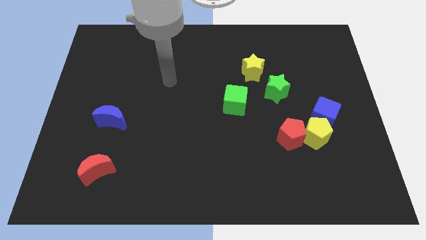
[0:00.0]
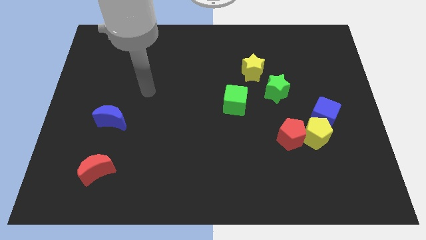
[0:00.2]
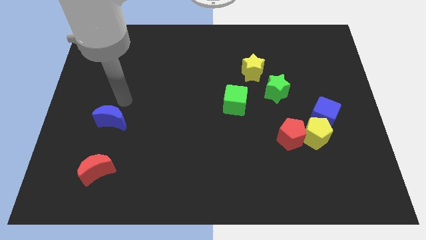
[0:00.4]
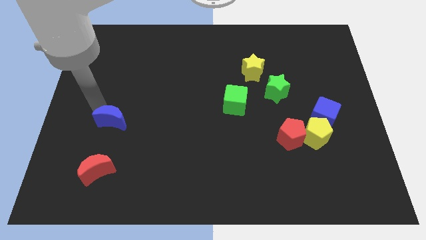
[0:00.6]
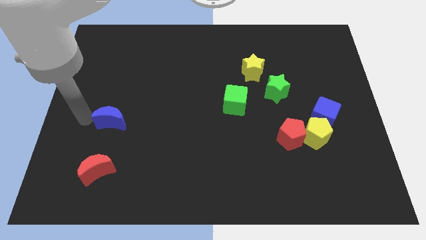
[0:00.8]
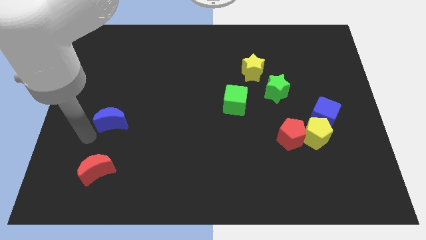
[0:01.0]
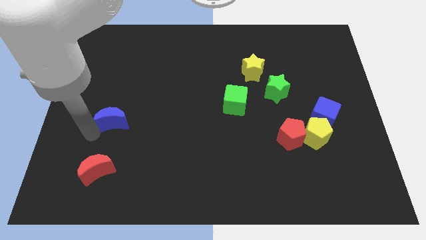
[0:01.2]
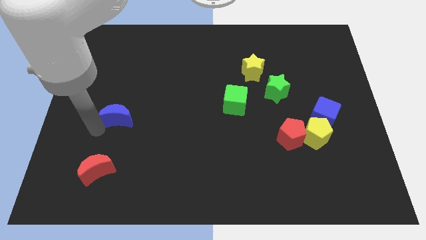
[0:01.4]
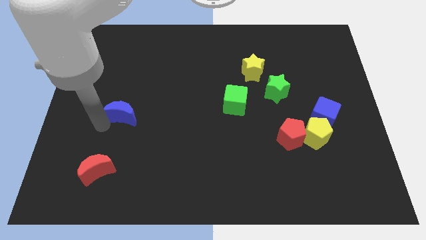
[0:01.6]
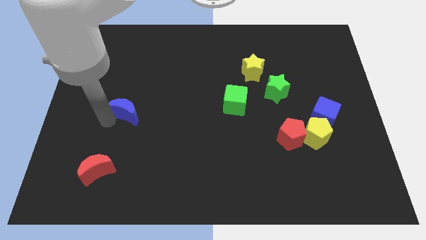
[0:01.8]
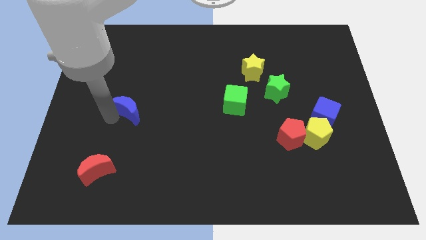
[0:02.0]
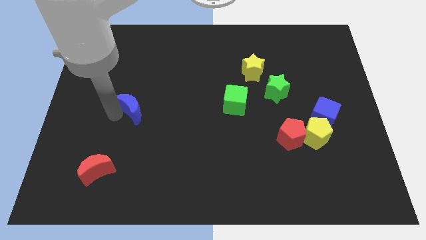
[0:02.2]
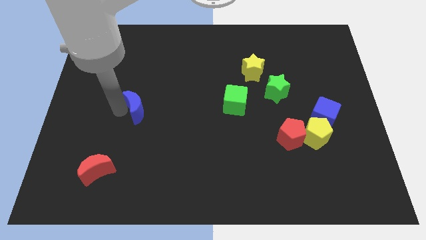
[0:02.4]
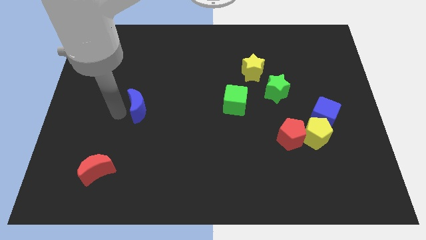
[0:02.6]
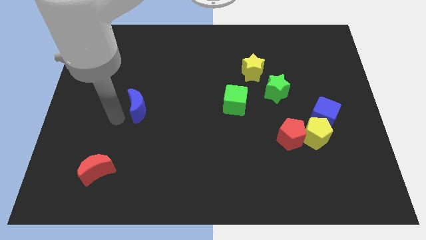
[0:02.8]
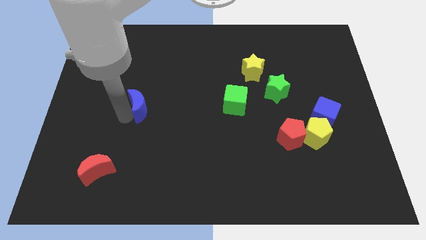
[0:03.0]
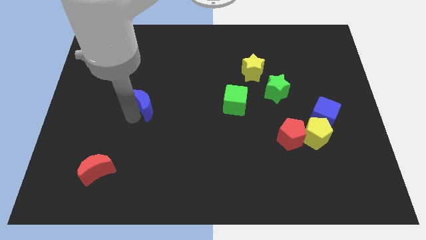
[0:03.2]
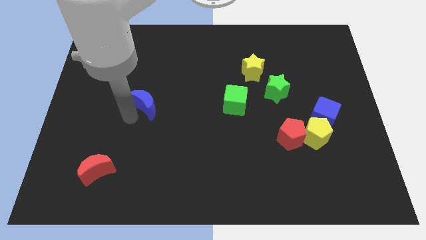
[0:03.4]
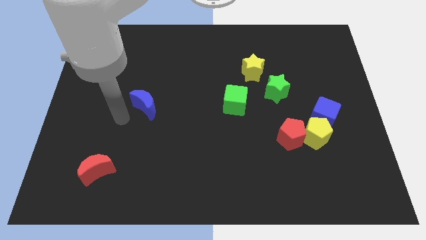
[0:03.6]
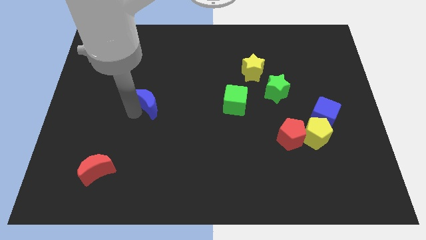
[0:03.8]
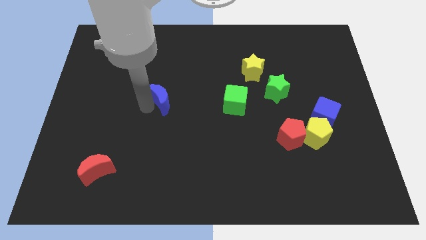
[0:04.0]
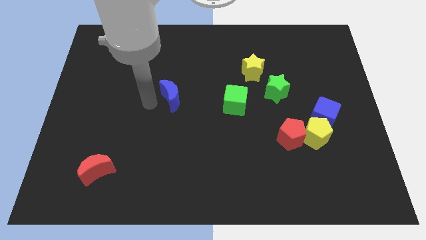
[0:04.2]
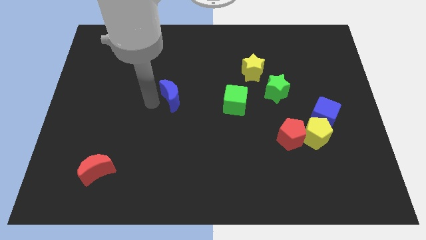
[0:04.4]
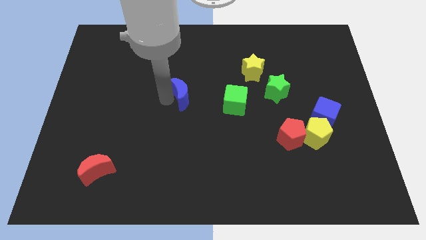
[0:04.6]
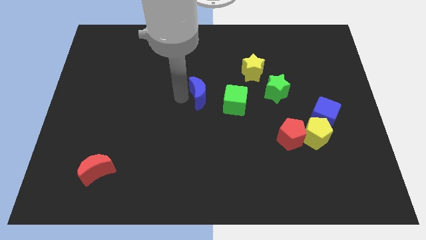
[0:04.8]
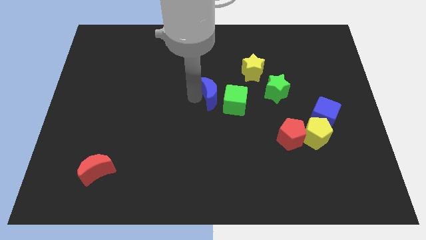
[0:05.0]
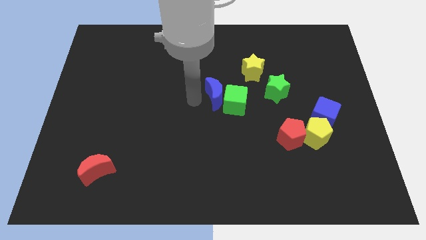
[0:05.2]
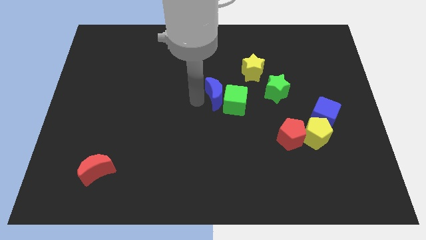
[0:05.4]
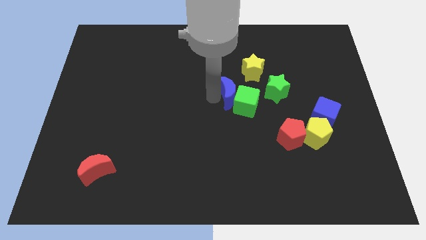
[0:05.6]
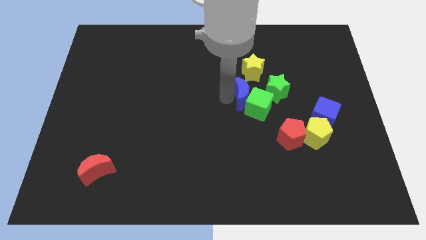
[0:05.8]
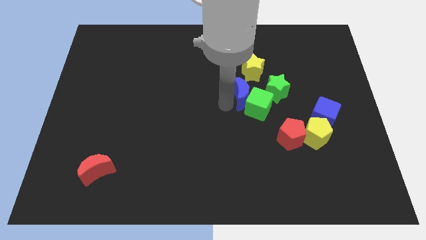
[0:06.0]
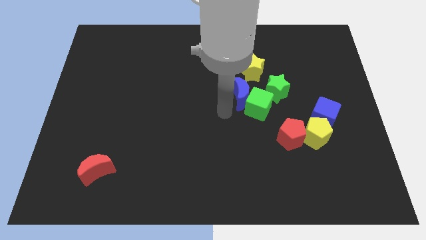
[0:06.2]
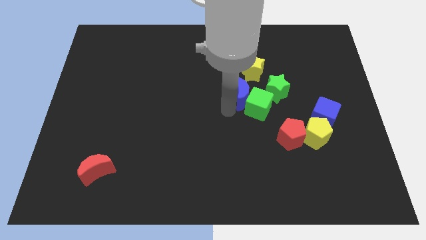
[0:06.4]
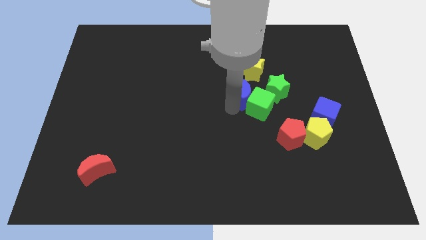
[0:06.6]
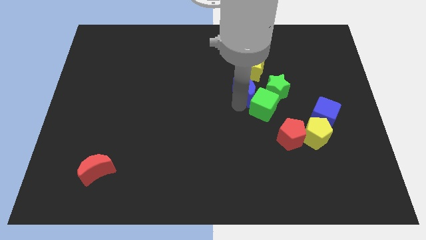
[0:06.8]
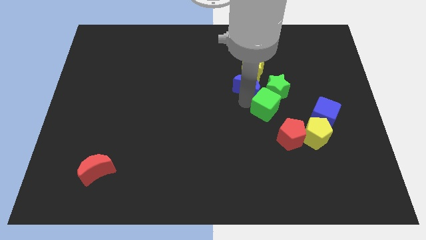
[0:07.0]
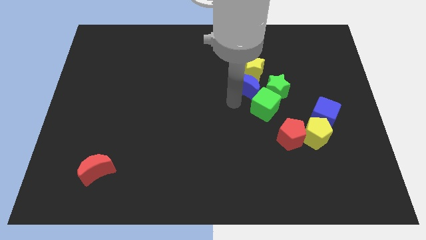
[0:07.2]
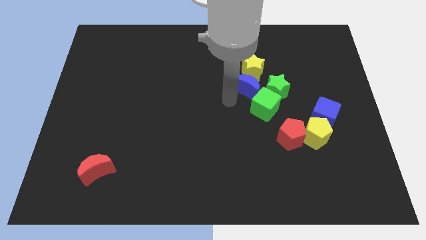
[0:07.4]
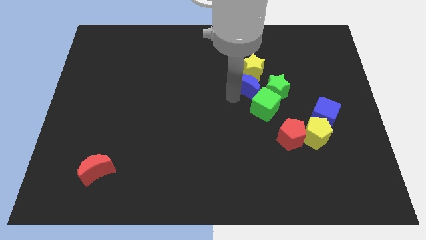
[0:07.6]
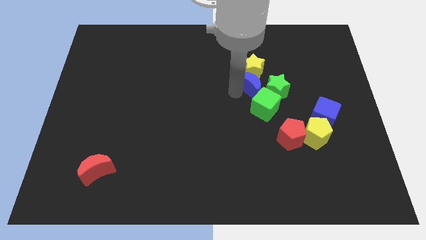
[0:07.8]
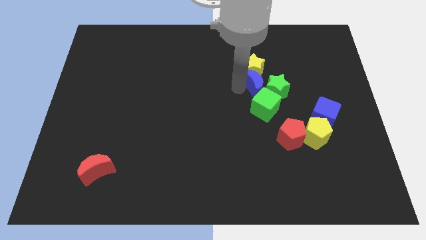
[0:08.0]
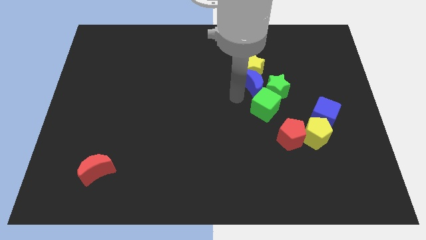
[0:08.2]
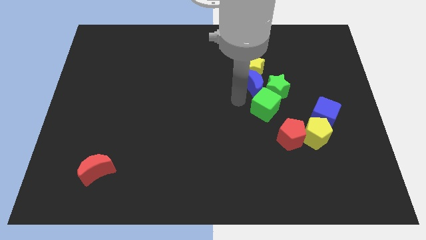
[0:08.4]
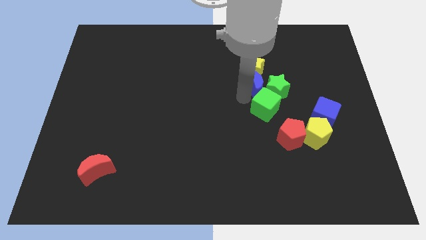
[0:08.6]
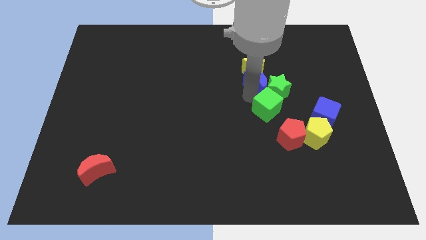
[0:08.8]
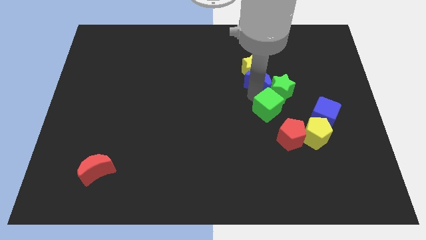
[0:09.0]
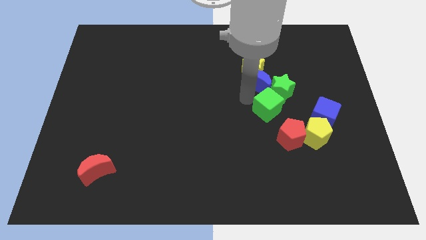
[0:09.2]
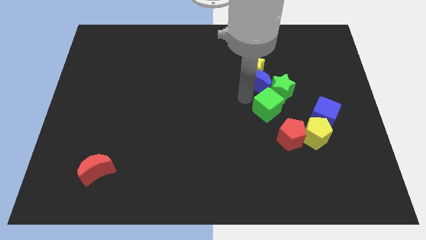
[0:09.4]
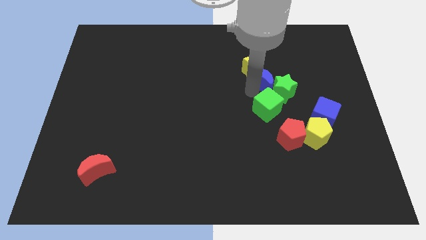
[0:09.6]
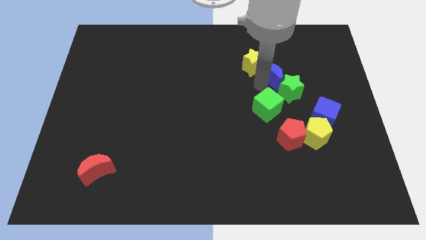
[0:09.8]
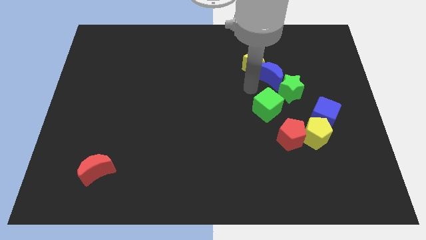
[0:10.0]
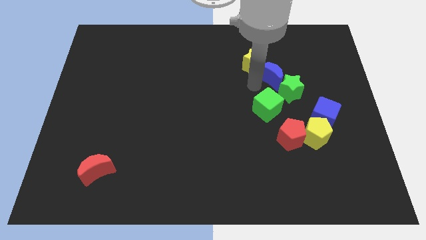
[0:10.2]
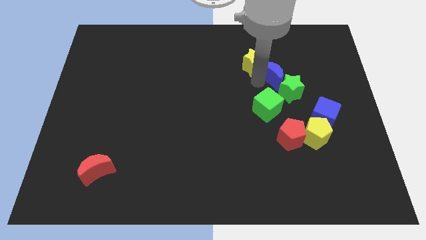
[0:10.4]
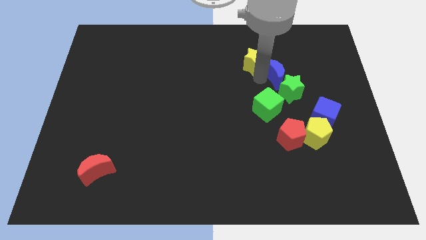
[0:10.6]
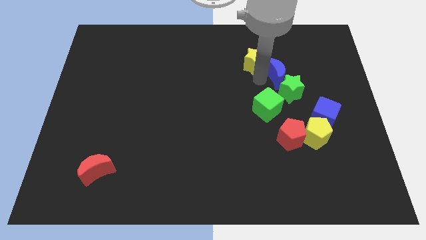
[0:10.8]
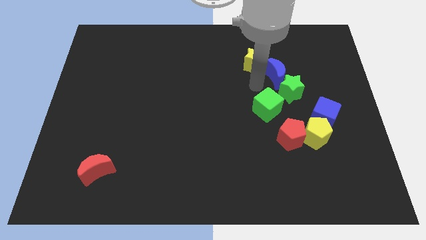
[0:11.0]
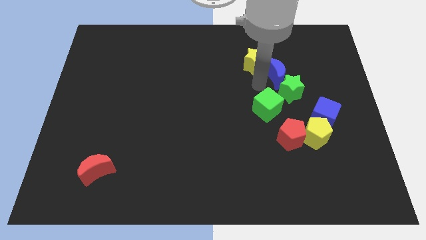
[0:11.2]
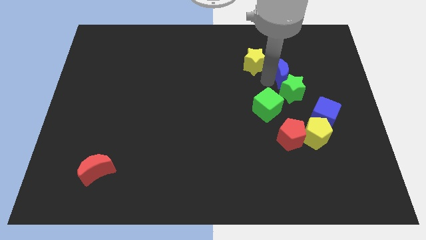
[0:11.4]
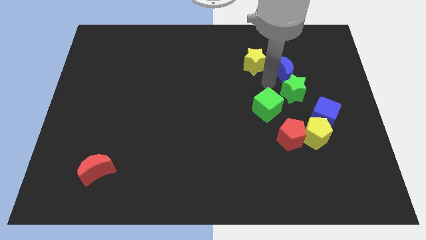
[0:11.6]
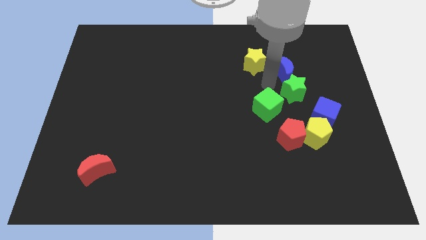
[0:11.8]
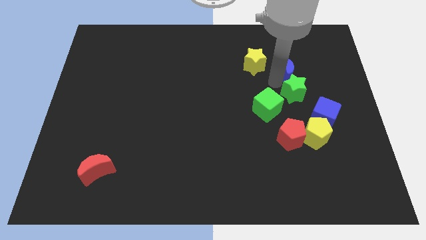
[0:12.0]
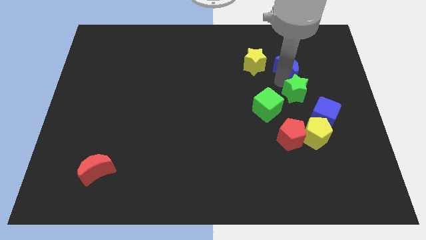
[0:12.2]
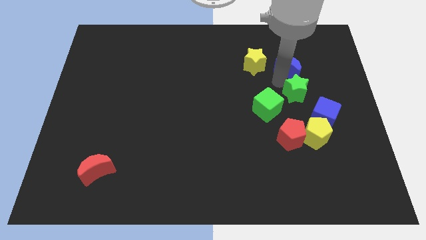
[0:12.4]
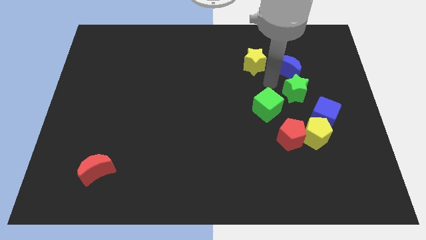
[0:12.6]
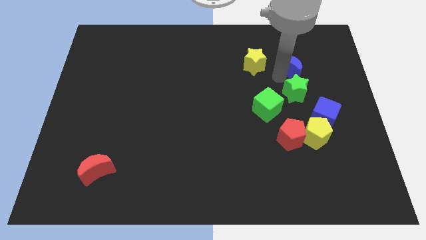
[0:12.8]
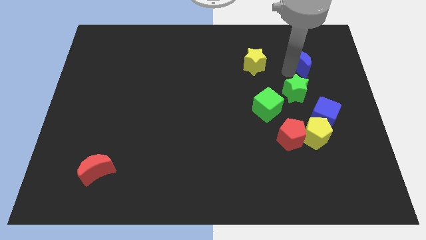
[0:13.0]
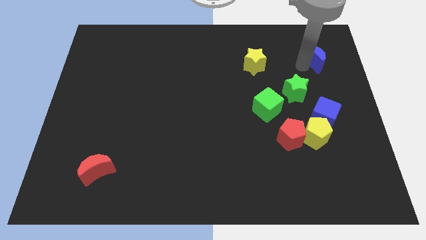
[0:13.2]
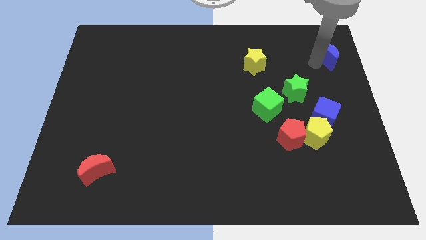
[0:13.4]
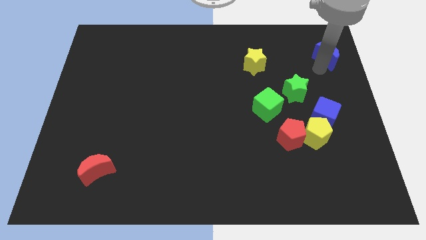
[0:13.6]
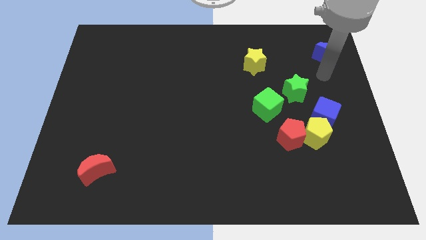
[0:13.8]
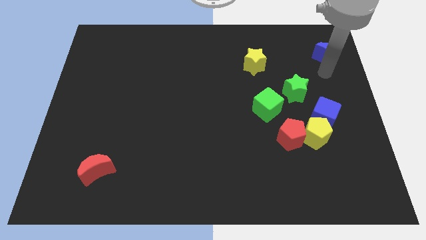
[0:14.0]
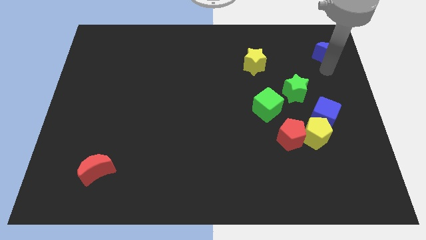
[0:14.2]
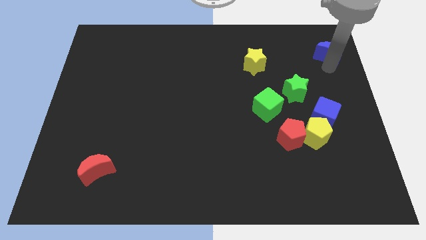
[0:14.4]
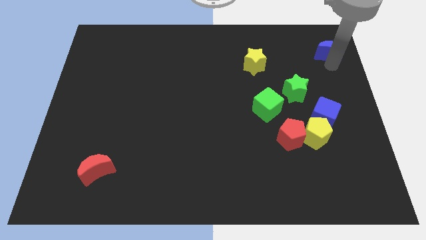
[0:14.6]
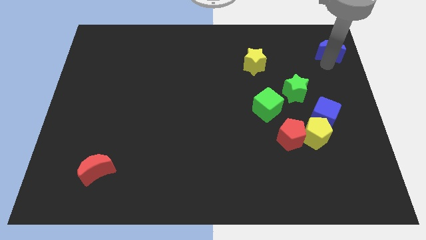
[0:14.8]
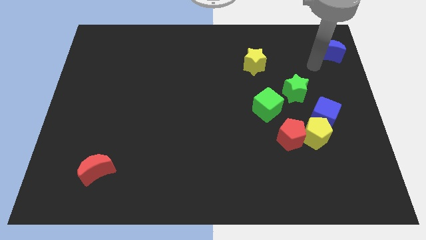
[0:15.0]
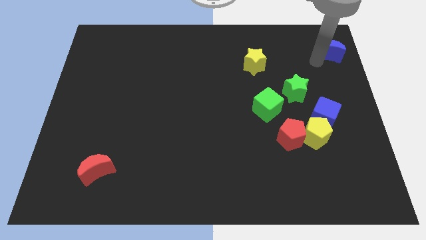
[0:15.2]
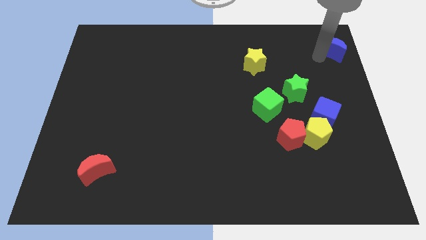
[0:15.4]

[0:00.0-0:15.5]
move the blue moon to the top right corner
